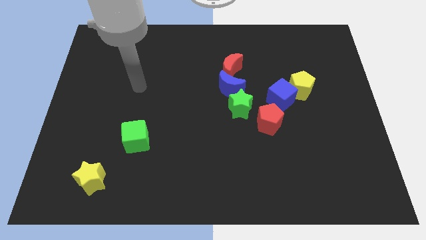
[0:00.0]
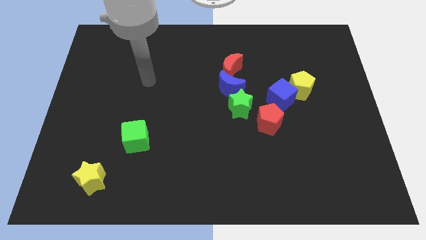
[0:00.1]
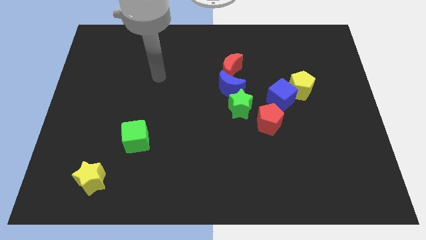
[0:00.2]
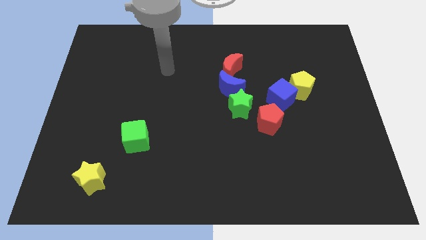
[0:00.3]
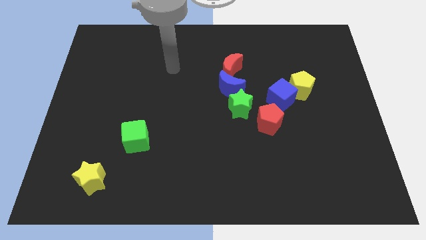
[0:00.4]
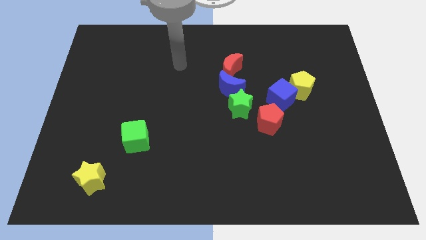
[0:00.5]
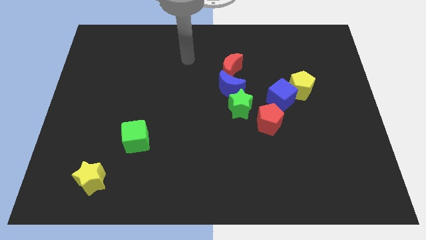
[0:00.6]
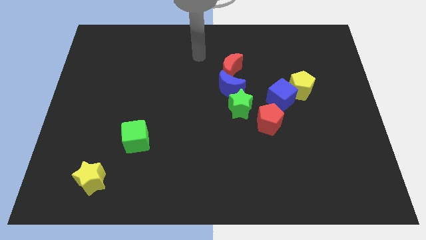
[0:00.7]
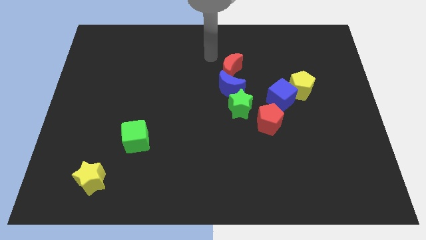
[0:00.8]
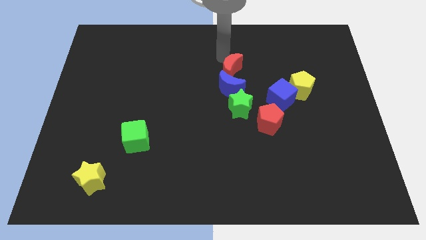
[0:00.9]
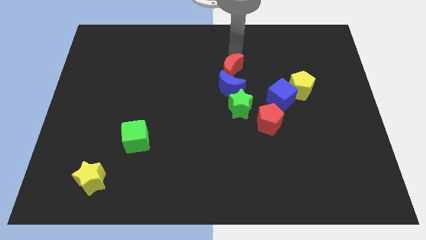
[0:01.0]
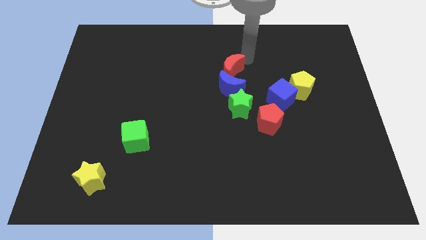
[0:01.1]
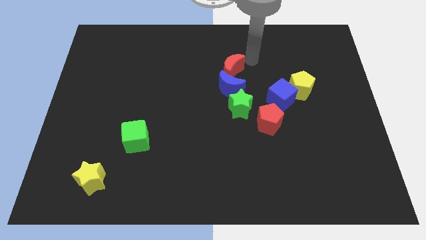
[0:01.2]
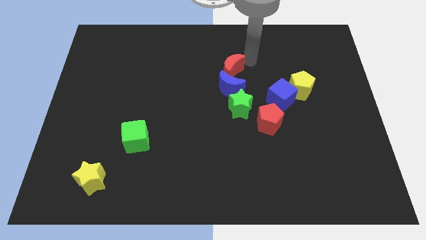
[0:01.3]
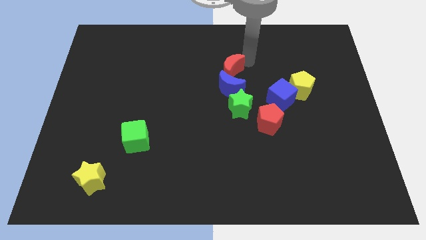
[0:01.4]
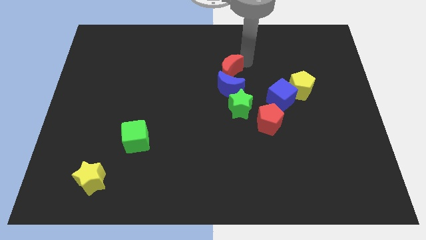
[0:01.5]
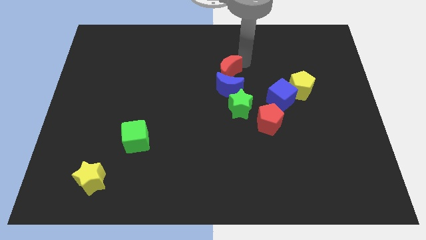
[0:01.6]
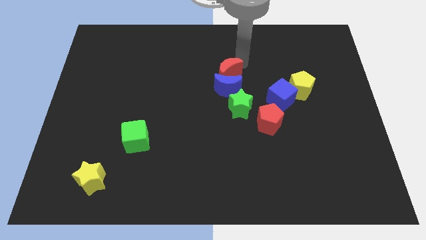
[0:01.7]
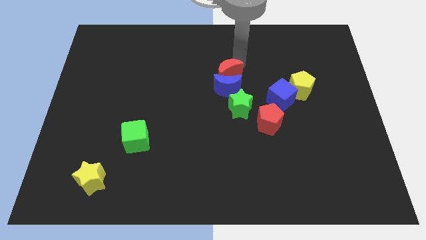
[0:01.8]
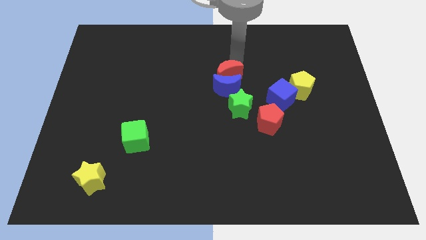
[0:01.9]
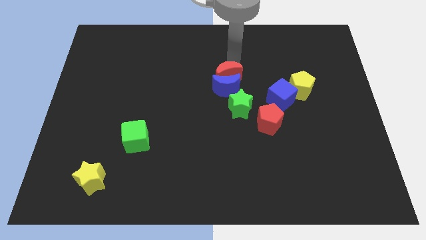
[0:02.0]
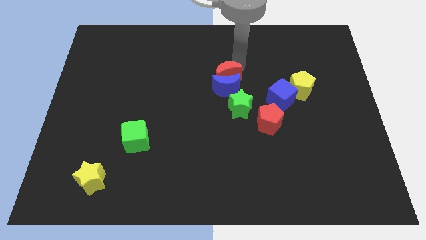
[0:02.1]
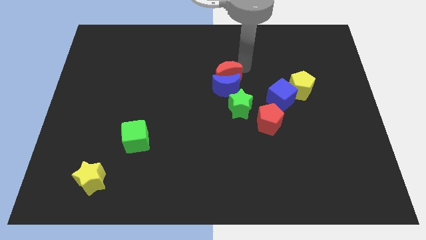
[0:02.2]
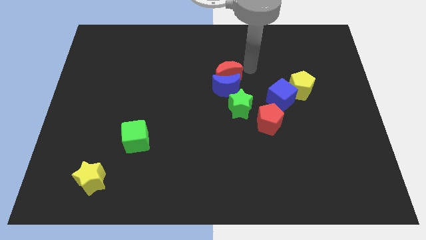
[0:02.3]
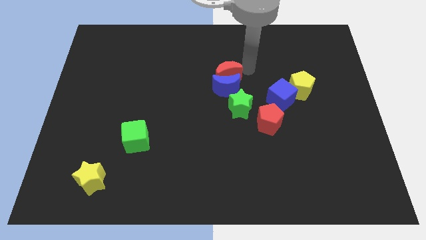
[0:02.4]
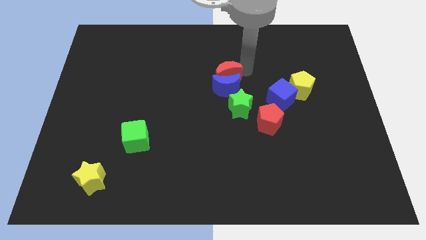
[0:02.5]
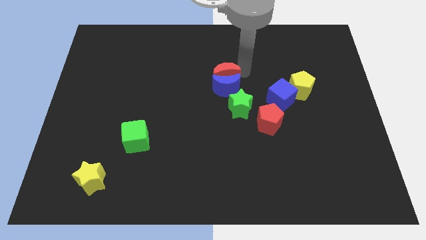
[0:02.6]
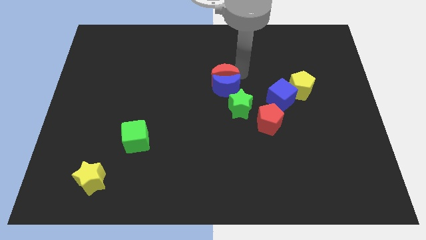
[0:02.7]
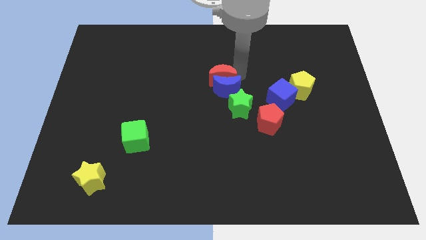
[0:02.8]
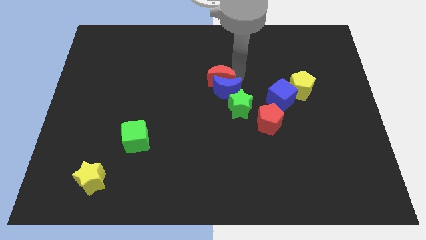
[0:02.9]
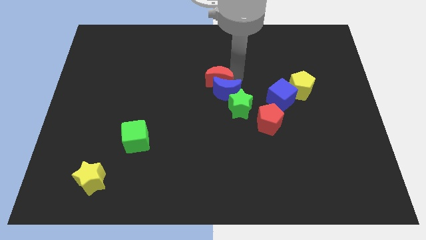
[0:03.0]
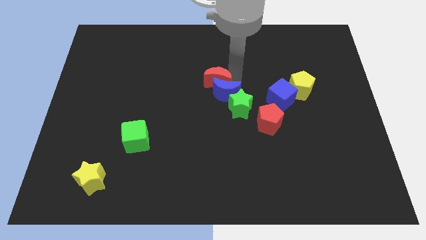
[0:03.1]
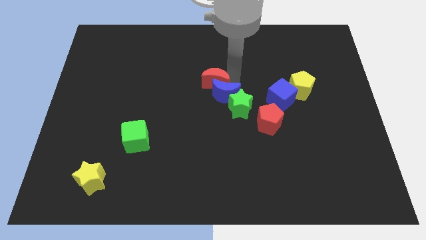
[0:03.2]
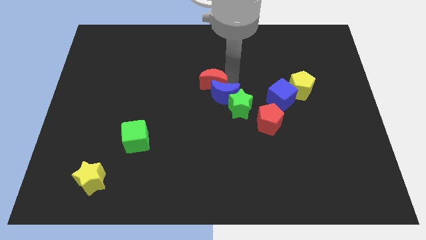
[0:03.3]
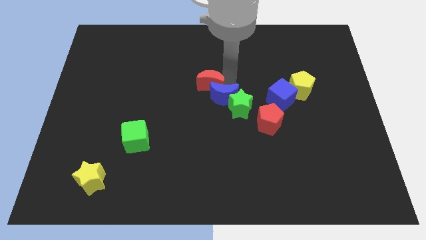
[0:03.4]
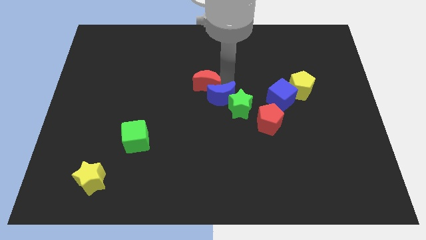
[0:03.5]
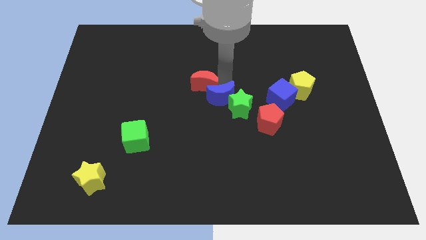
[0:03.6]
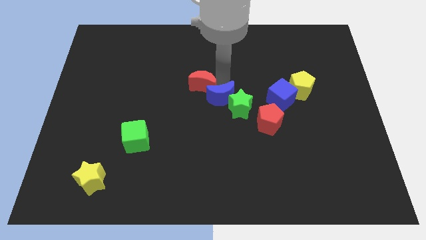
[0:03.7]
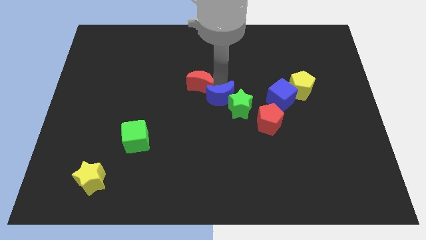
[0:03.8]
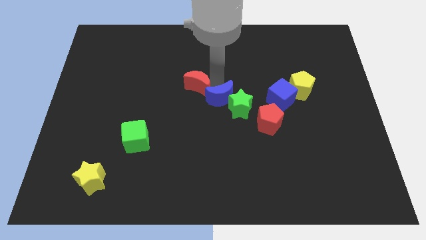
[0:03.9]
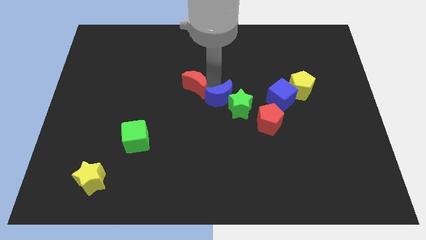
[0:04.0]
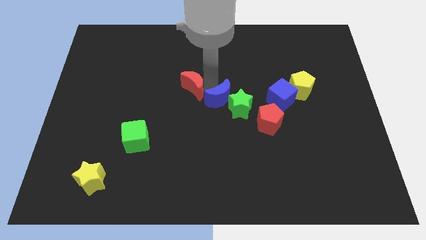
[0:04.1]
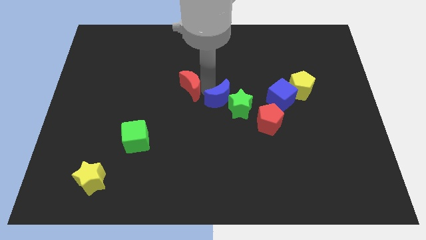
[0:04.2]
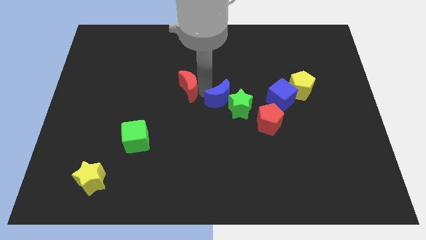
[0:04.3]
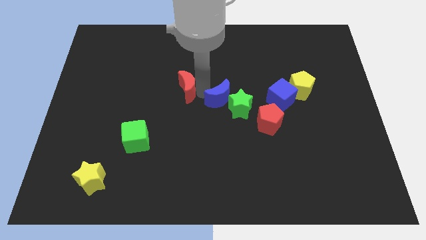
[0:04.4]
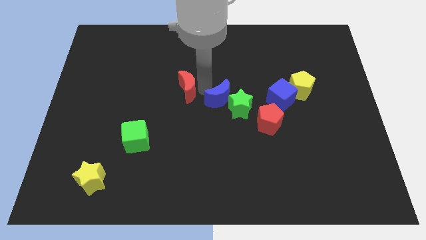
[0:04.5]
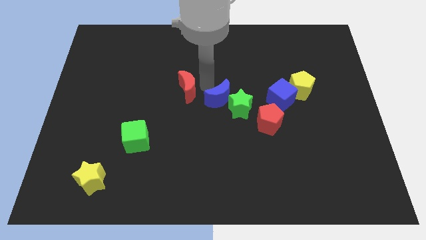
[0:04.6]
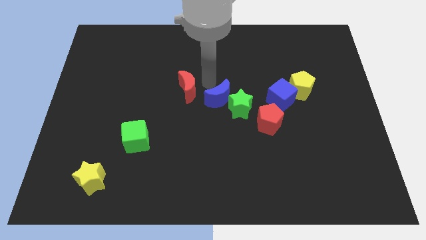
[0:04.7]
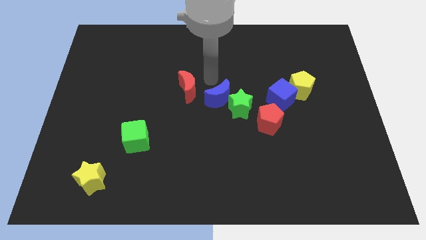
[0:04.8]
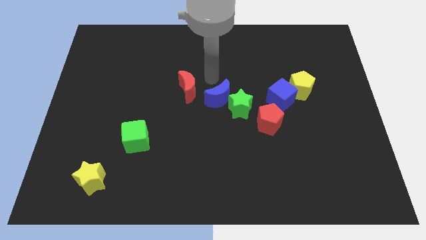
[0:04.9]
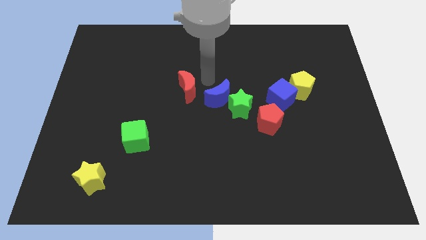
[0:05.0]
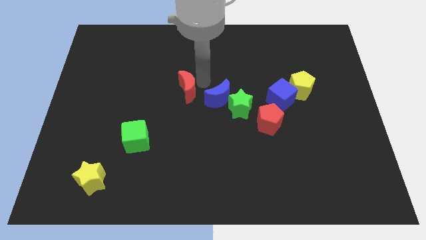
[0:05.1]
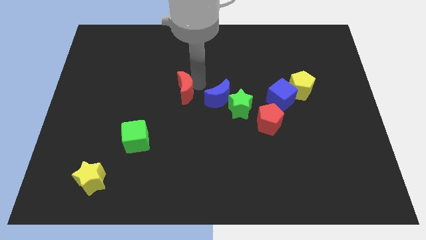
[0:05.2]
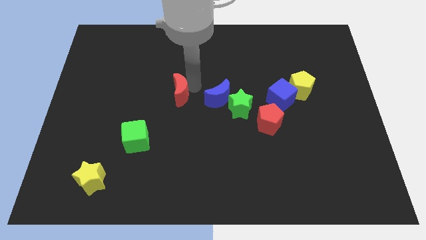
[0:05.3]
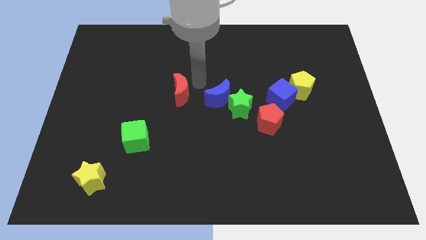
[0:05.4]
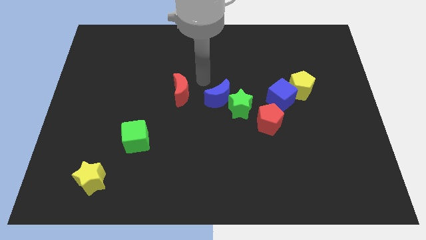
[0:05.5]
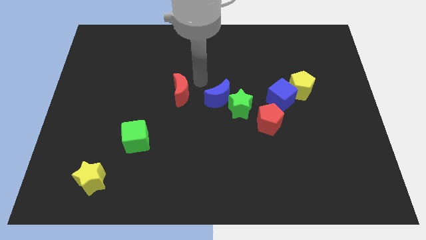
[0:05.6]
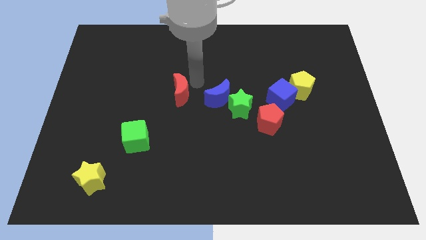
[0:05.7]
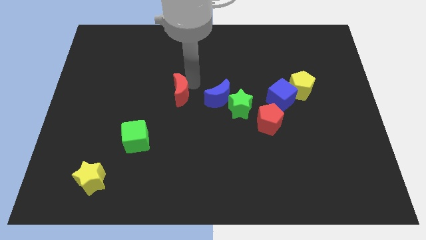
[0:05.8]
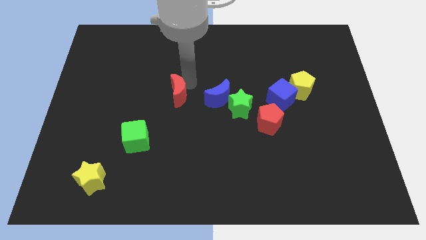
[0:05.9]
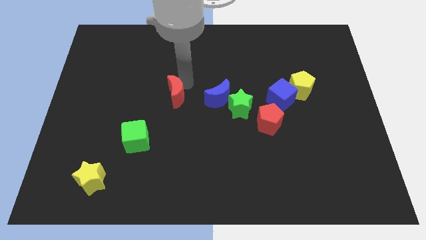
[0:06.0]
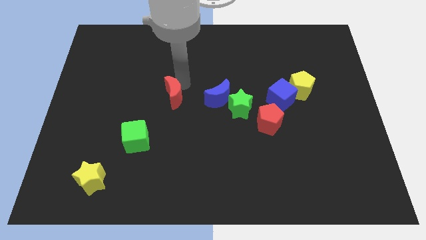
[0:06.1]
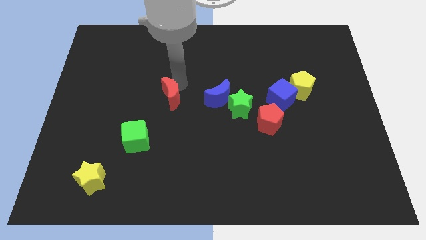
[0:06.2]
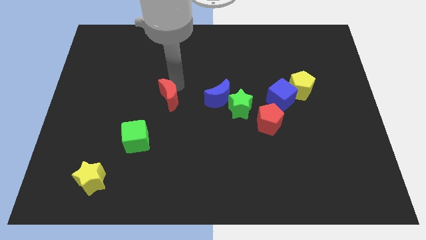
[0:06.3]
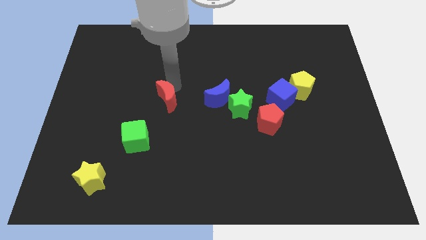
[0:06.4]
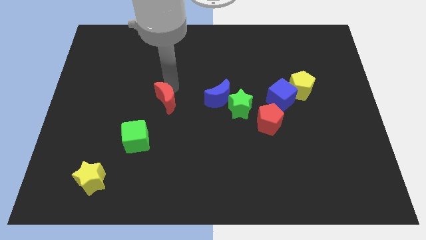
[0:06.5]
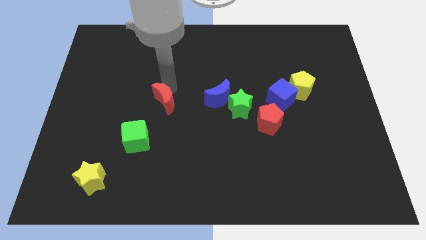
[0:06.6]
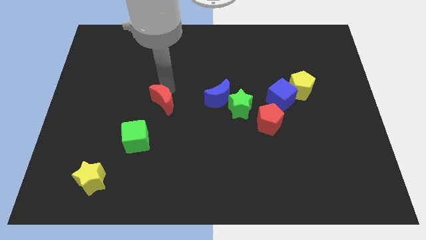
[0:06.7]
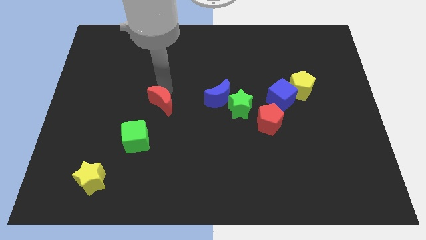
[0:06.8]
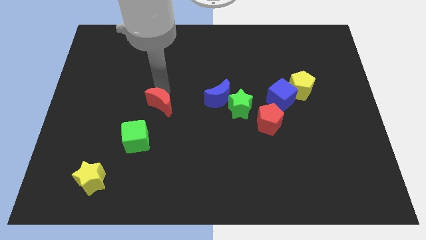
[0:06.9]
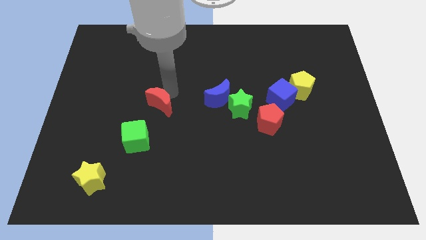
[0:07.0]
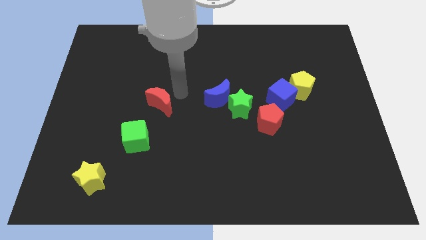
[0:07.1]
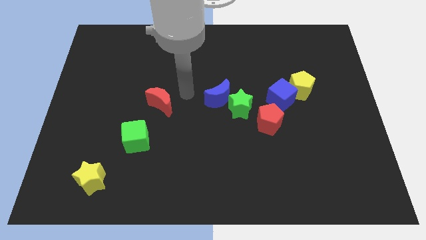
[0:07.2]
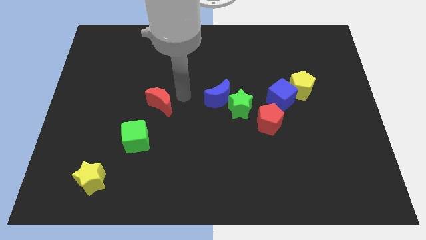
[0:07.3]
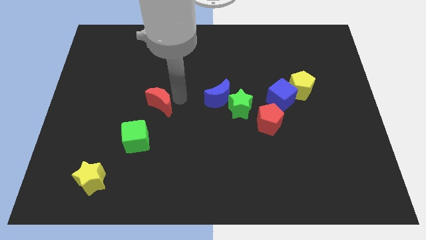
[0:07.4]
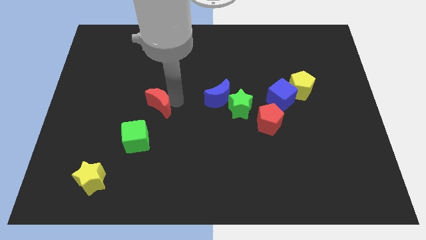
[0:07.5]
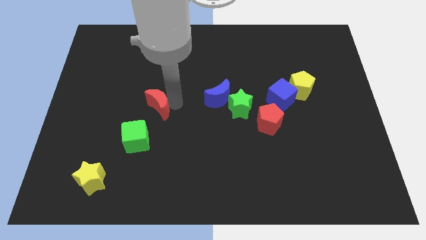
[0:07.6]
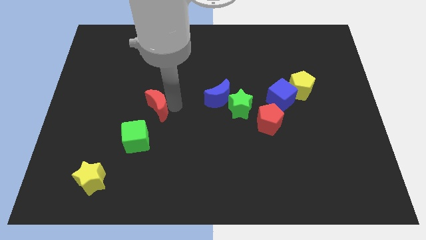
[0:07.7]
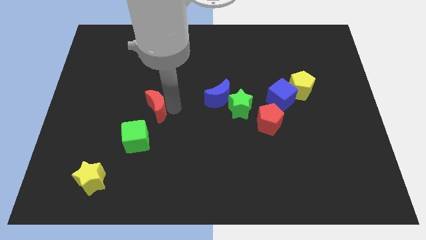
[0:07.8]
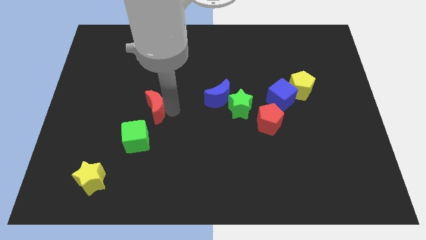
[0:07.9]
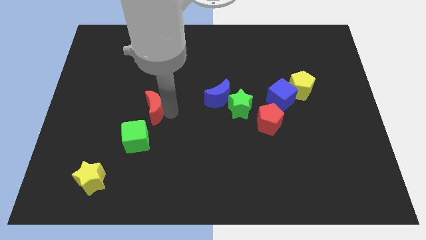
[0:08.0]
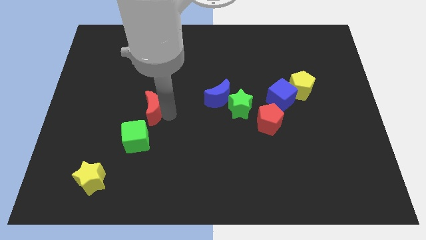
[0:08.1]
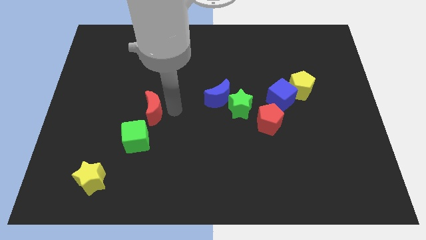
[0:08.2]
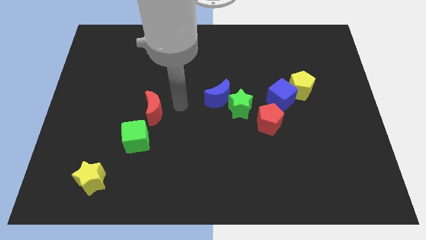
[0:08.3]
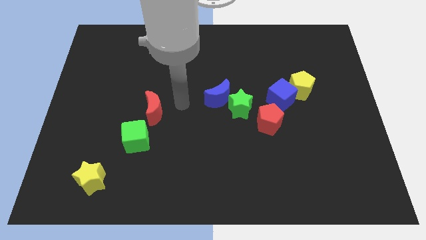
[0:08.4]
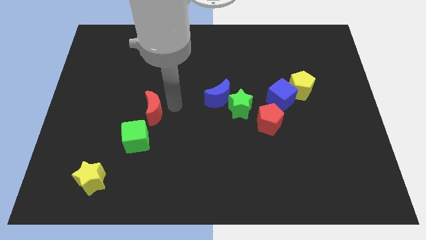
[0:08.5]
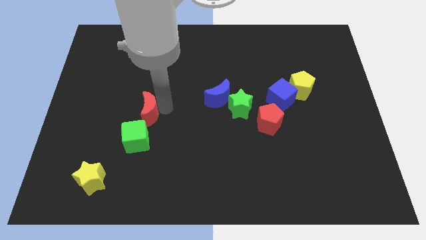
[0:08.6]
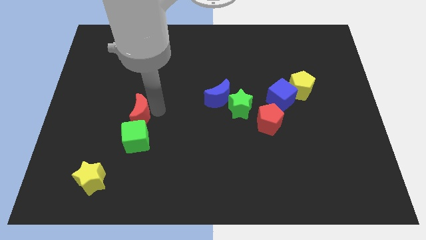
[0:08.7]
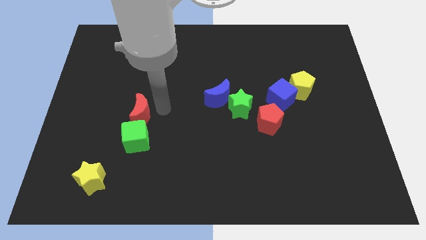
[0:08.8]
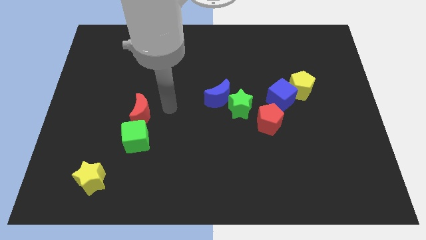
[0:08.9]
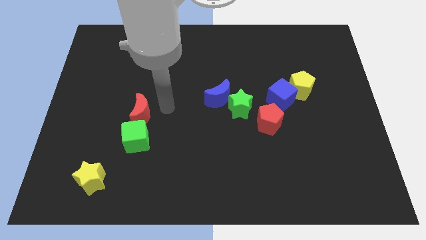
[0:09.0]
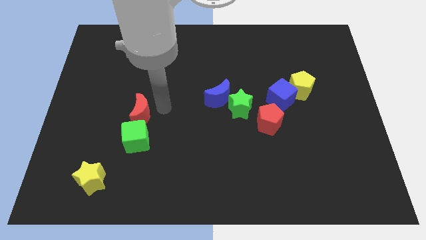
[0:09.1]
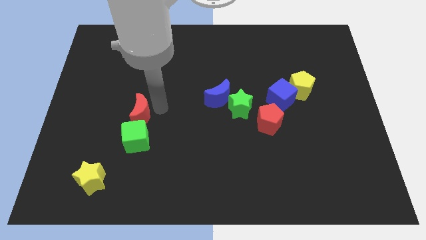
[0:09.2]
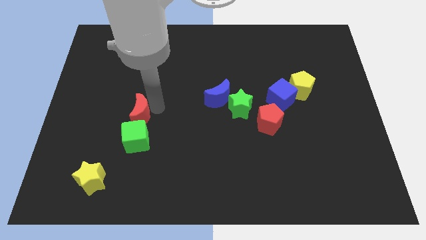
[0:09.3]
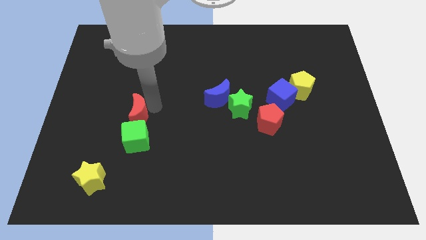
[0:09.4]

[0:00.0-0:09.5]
push the red moon to the top left side of the green cube
